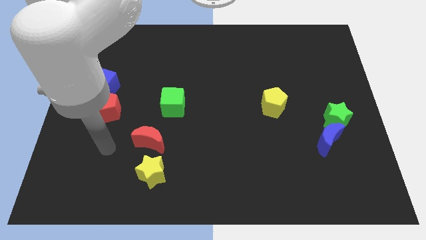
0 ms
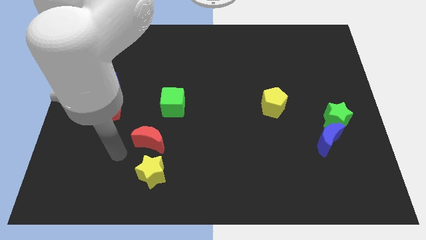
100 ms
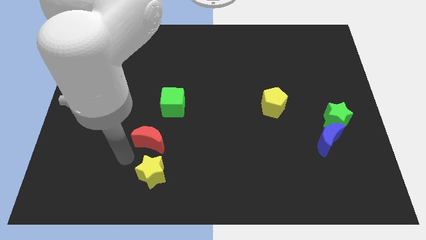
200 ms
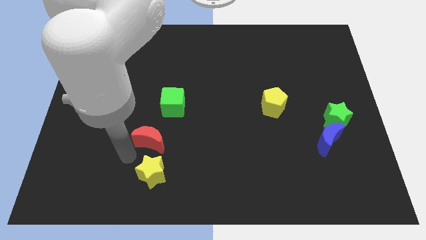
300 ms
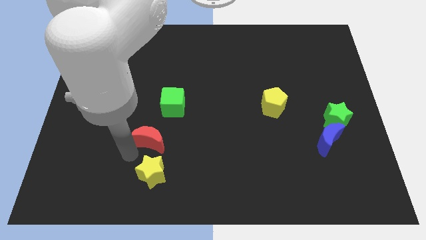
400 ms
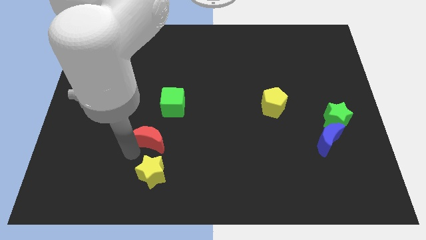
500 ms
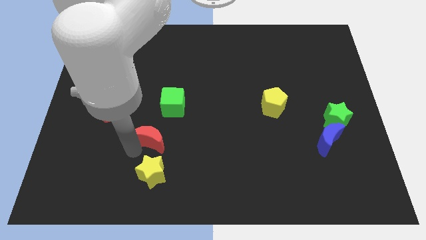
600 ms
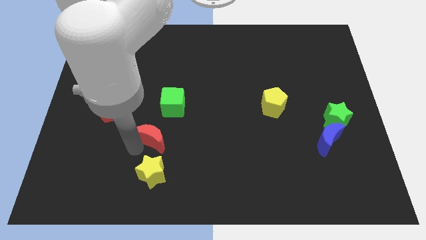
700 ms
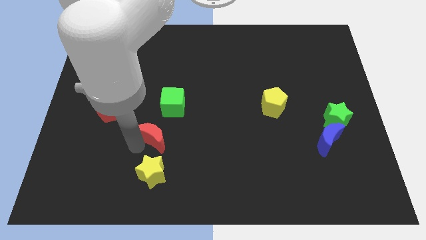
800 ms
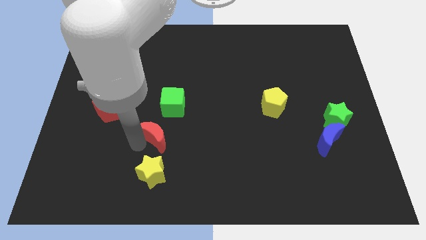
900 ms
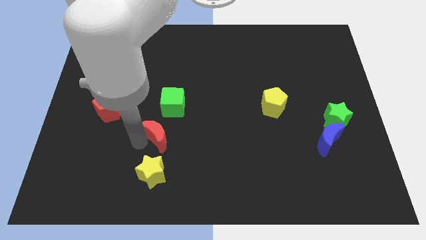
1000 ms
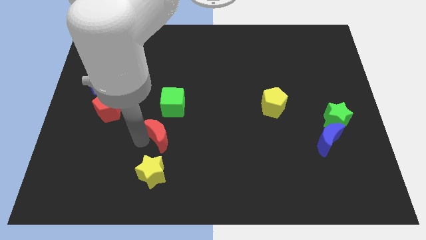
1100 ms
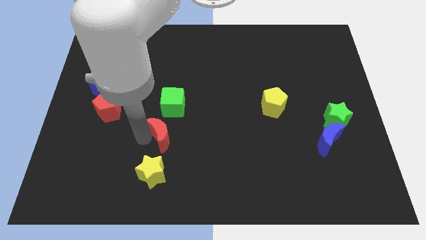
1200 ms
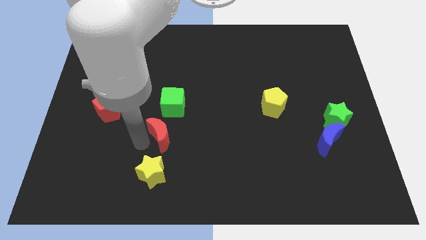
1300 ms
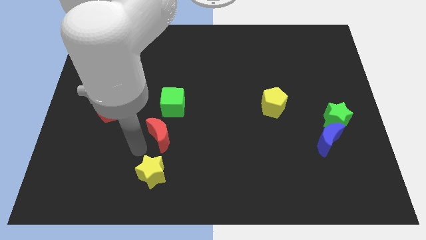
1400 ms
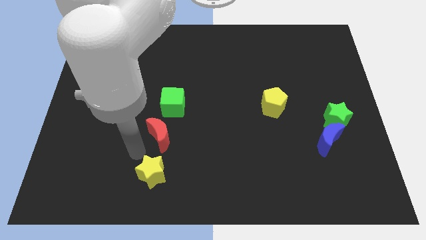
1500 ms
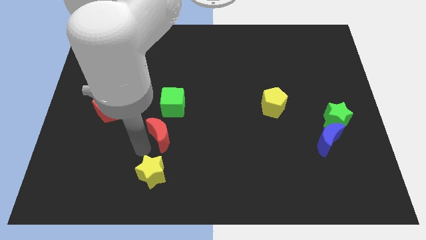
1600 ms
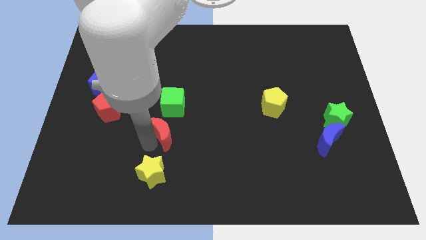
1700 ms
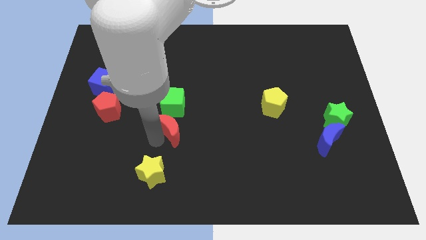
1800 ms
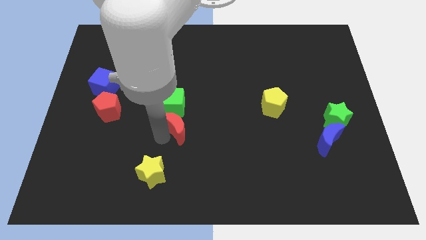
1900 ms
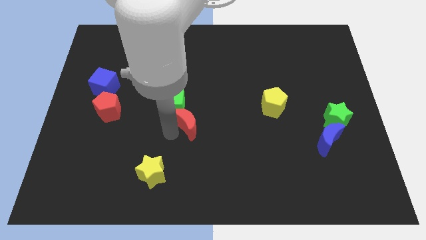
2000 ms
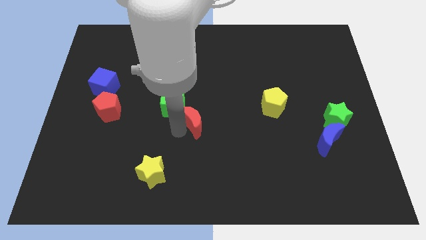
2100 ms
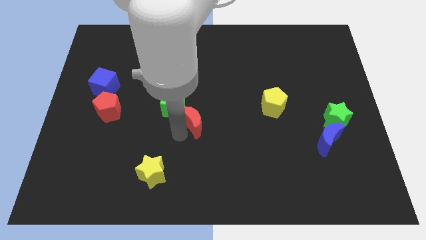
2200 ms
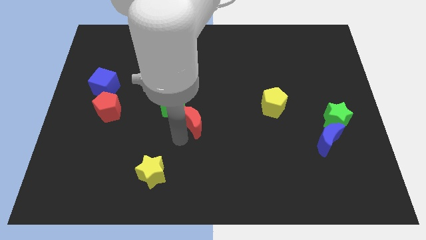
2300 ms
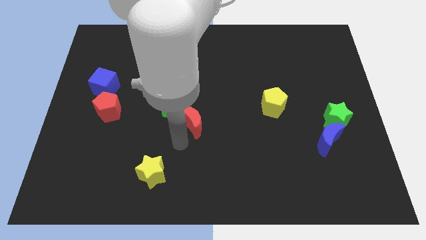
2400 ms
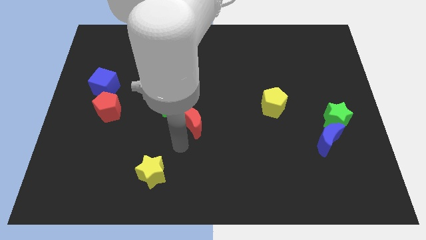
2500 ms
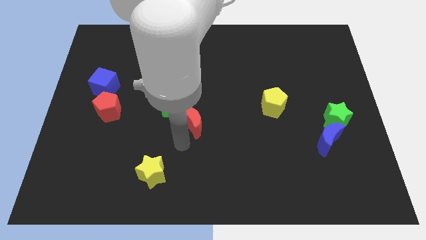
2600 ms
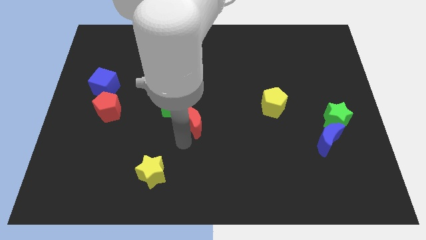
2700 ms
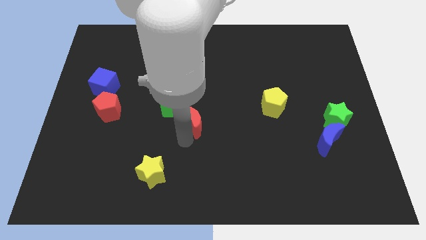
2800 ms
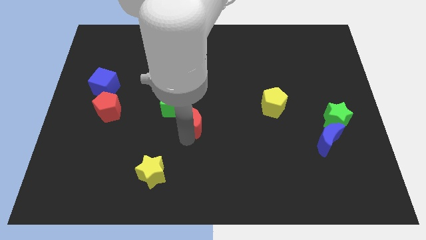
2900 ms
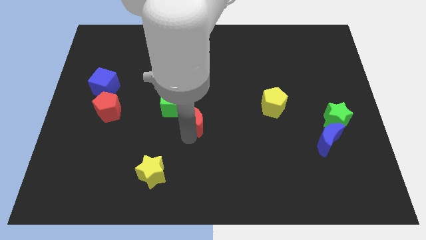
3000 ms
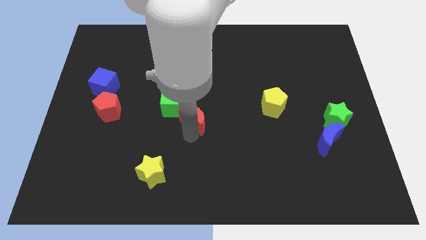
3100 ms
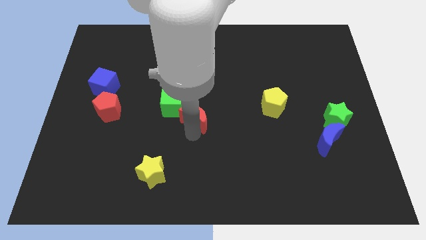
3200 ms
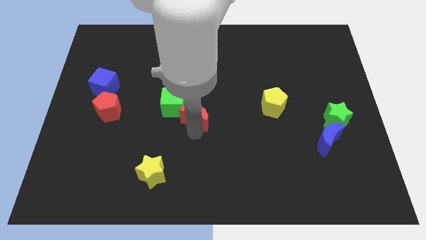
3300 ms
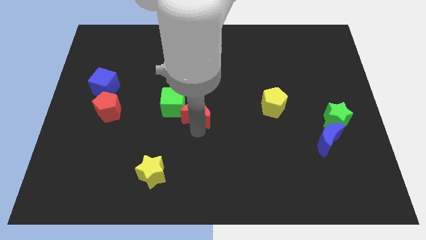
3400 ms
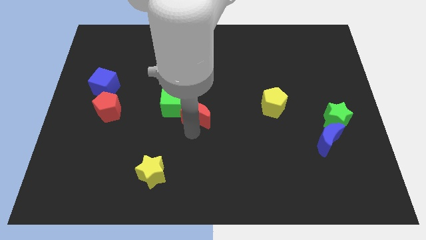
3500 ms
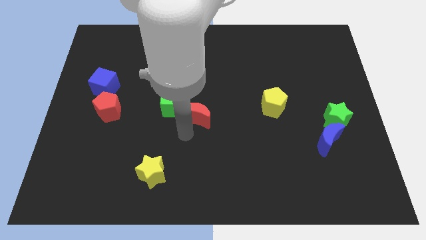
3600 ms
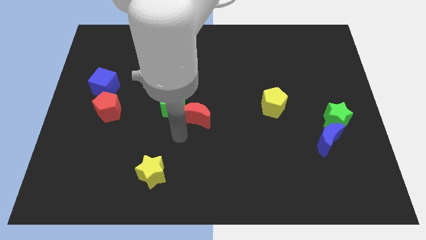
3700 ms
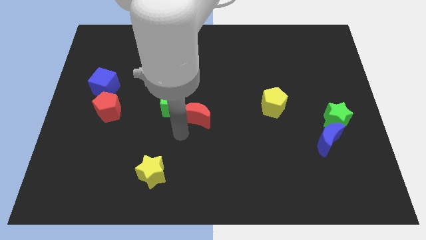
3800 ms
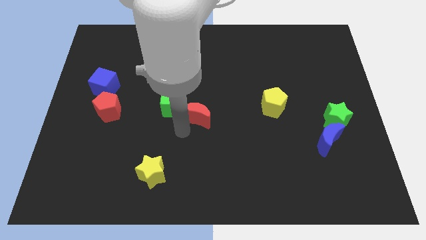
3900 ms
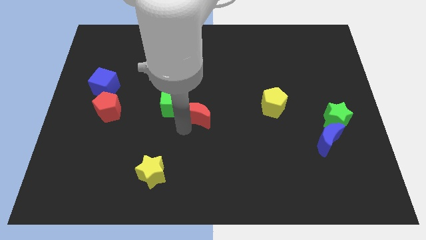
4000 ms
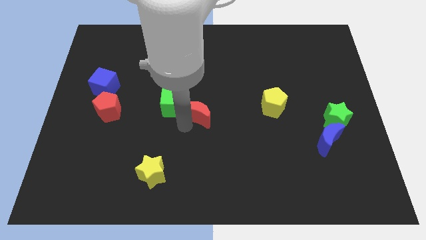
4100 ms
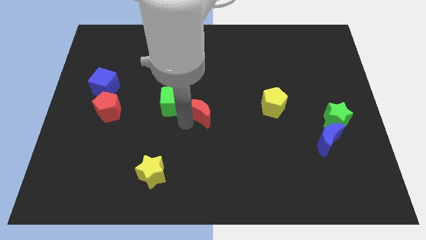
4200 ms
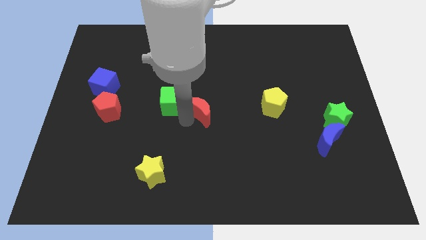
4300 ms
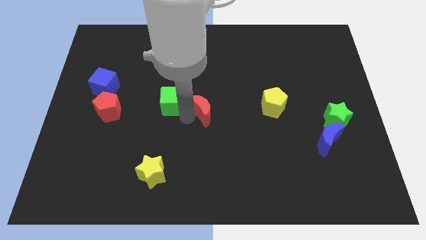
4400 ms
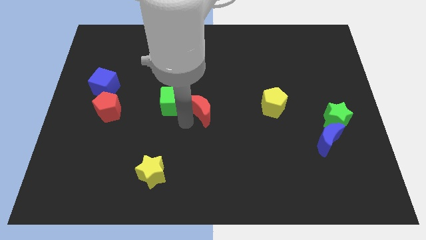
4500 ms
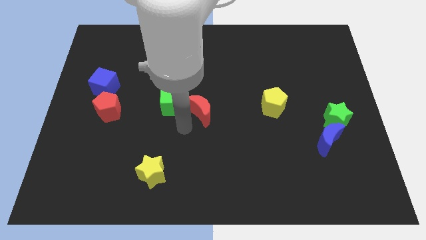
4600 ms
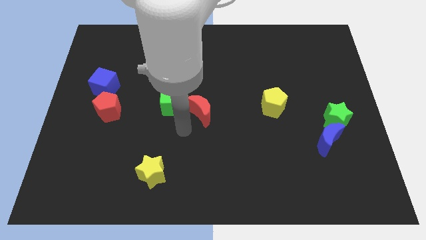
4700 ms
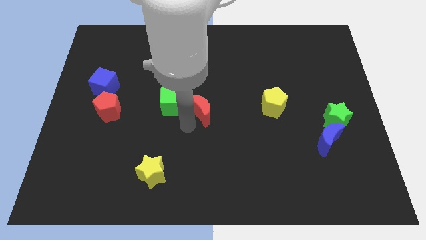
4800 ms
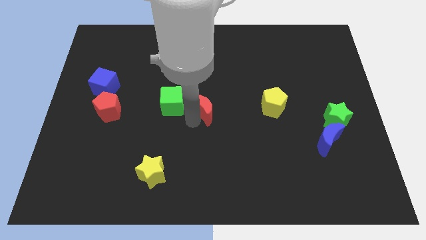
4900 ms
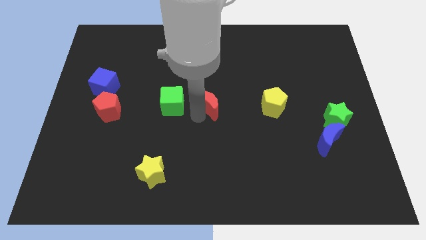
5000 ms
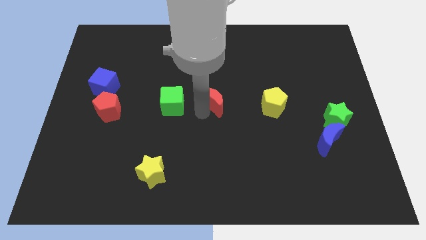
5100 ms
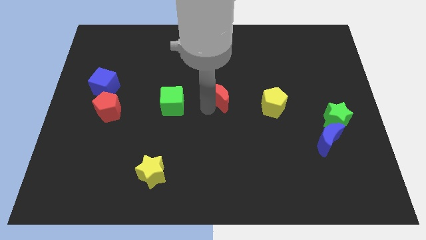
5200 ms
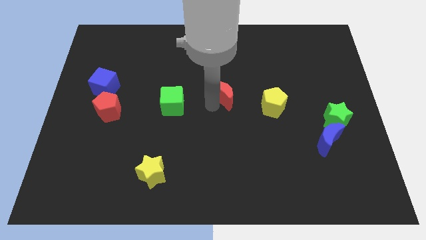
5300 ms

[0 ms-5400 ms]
slide the red moon upwards and to the right diagonally

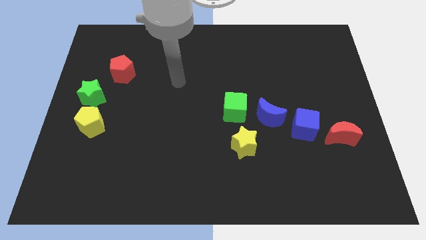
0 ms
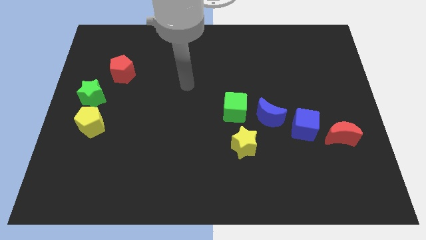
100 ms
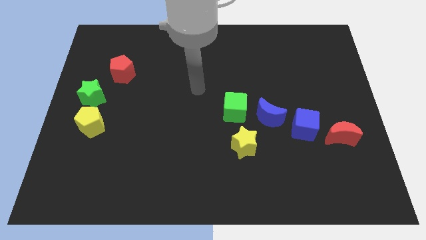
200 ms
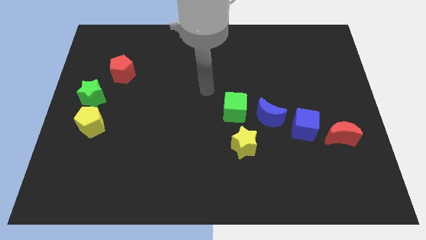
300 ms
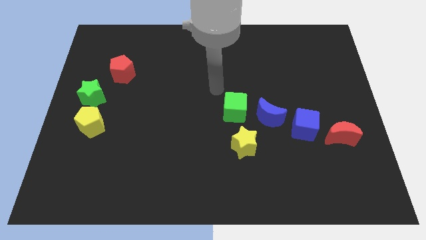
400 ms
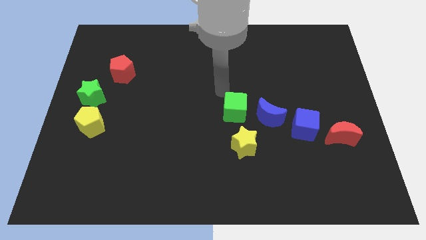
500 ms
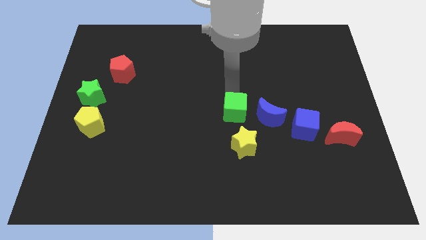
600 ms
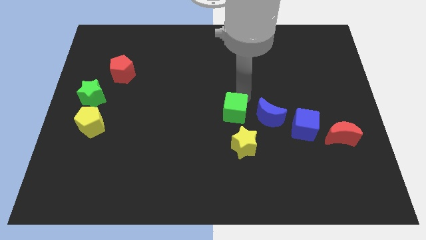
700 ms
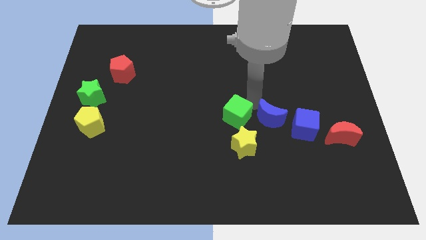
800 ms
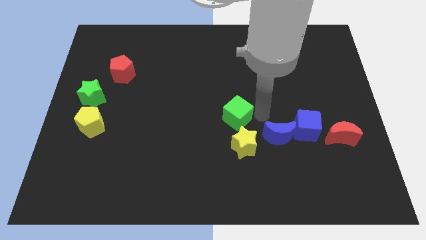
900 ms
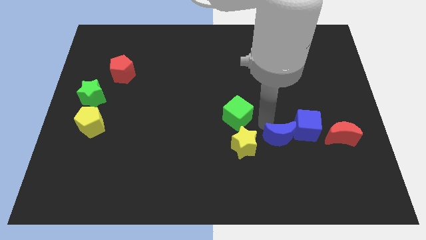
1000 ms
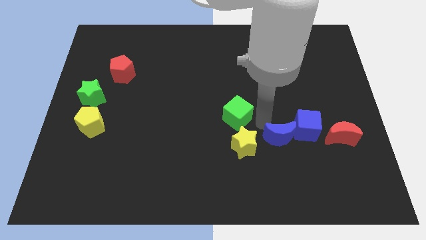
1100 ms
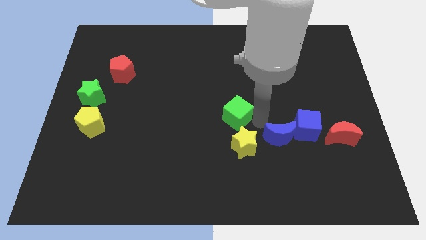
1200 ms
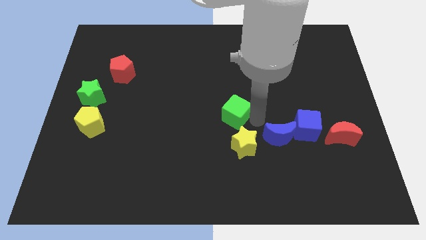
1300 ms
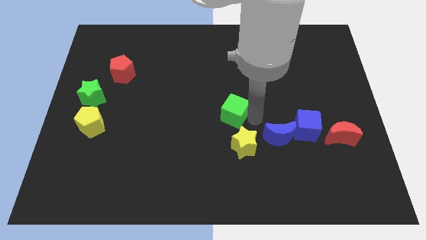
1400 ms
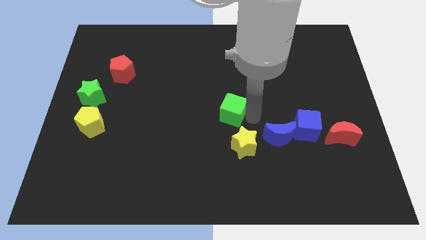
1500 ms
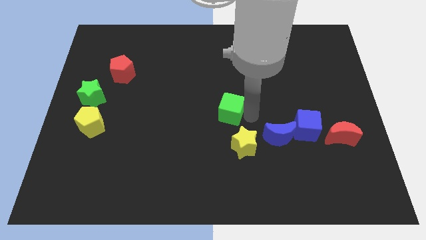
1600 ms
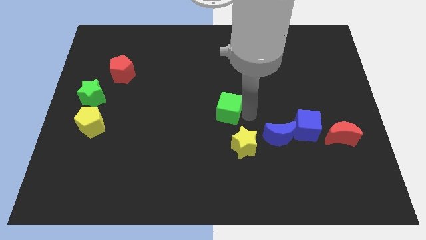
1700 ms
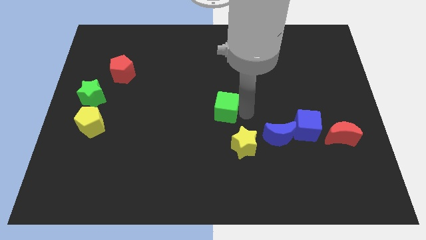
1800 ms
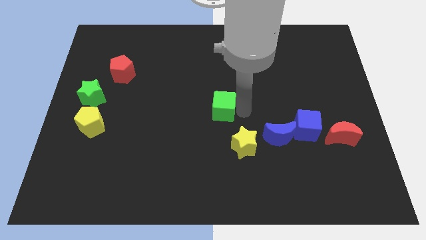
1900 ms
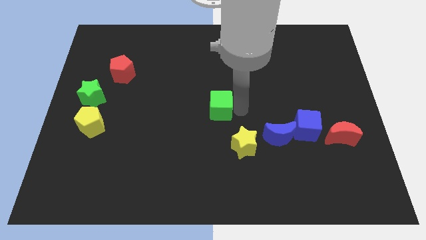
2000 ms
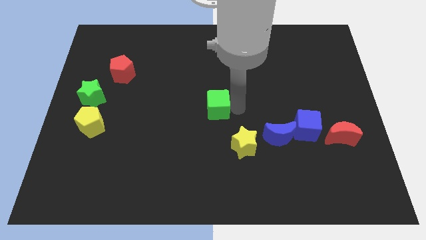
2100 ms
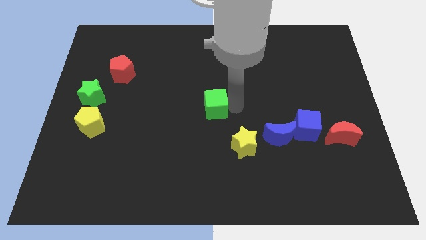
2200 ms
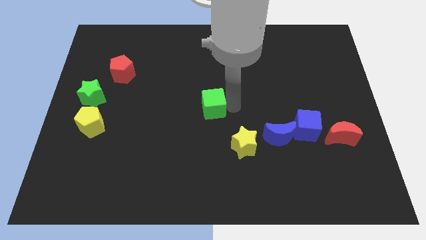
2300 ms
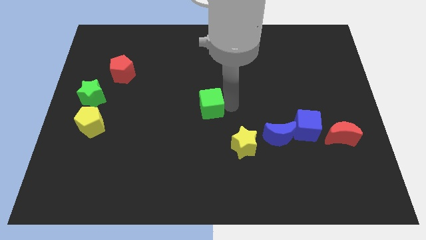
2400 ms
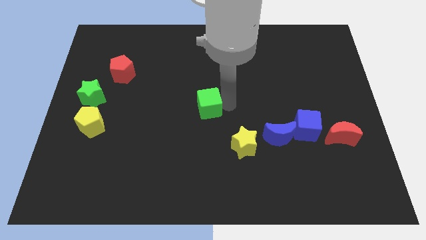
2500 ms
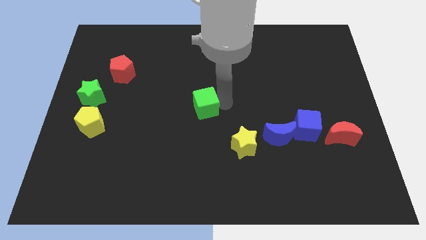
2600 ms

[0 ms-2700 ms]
move the green cube a little to the left
